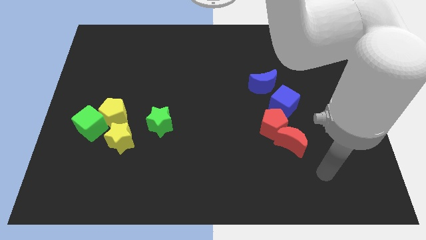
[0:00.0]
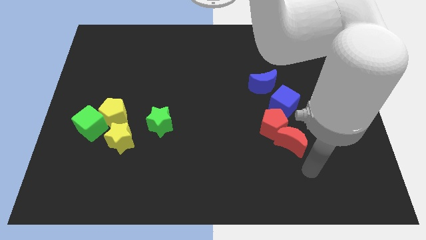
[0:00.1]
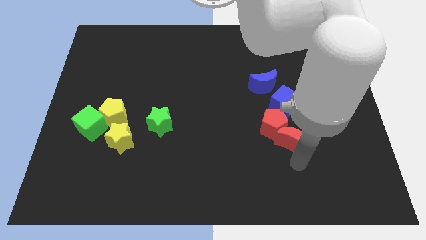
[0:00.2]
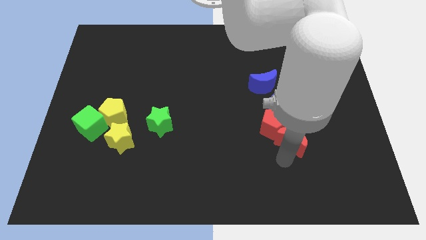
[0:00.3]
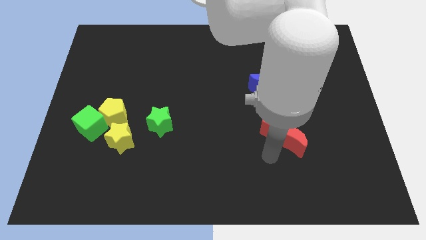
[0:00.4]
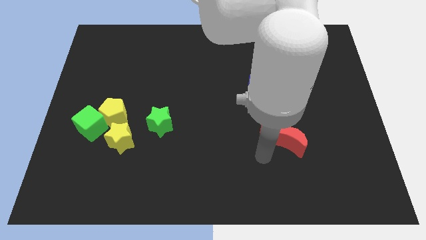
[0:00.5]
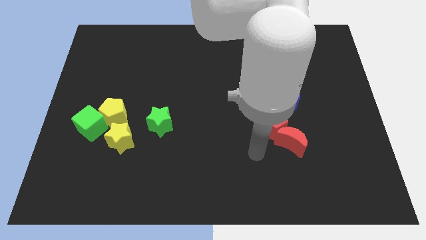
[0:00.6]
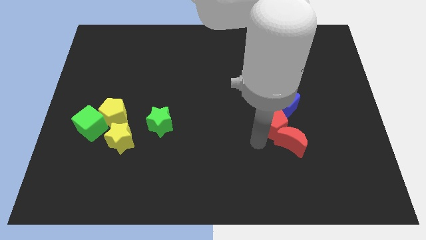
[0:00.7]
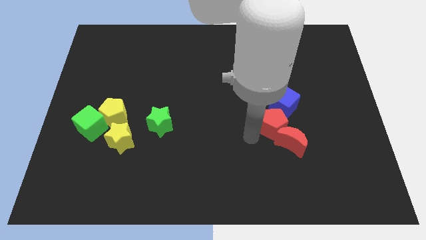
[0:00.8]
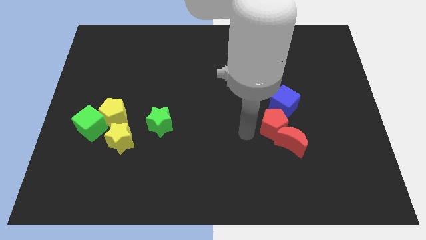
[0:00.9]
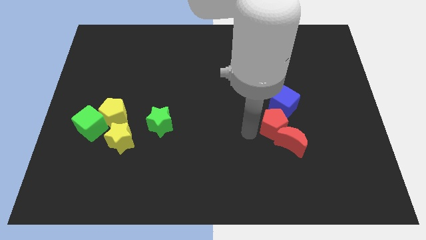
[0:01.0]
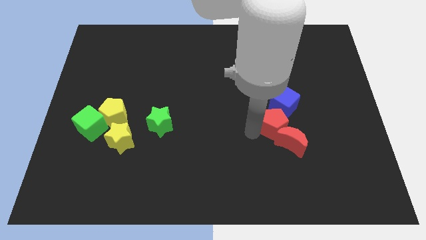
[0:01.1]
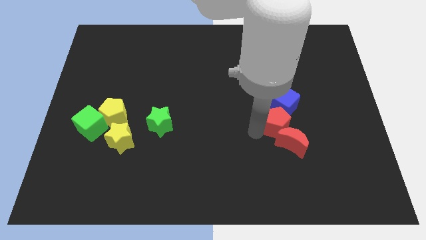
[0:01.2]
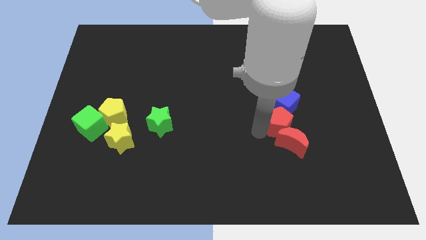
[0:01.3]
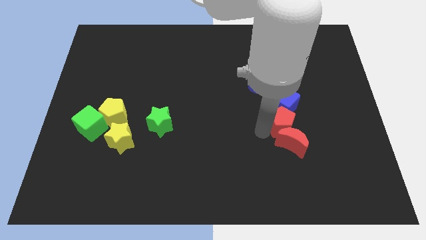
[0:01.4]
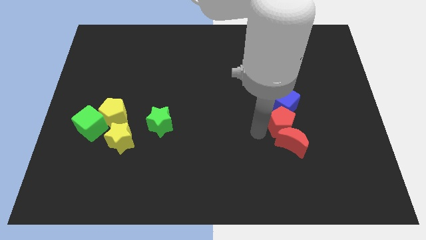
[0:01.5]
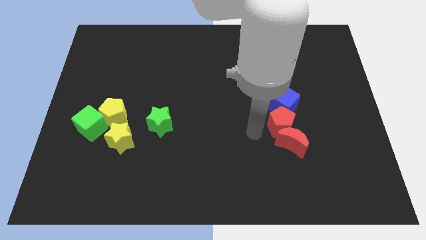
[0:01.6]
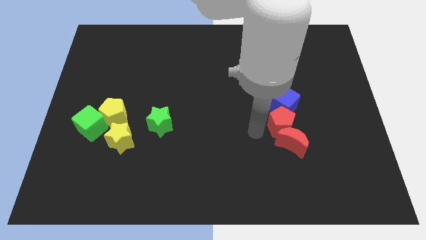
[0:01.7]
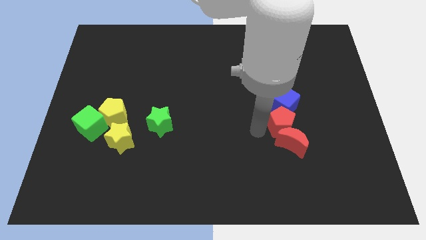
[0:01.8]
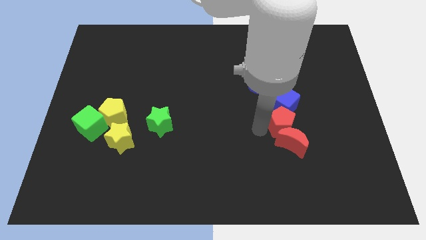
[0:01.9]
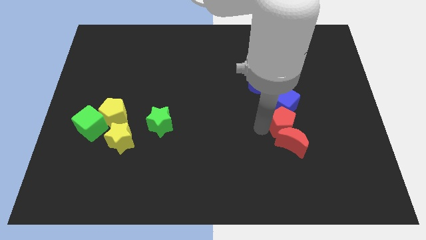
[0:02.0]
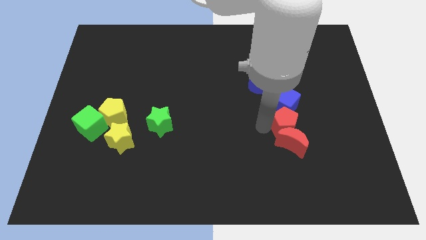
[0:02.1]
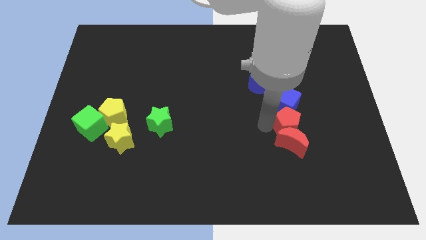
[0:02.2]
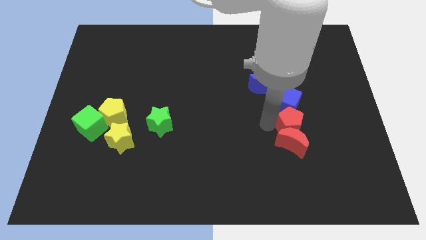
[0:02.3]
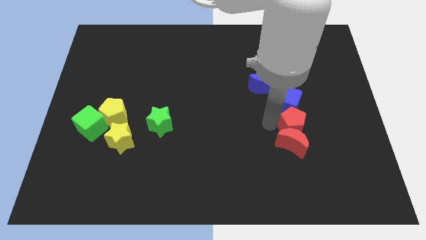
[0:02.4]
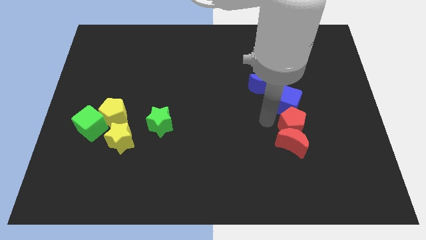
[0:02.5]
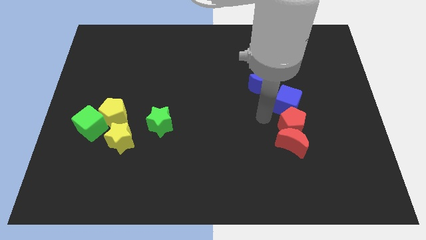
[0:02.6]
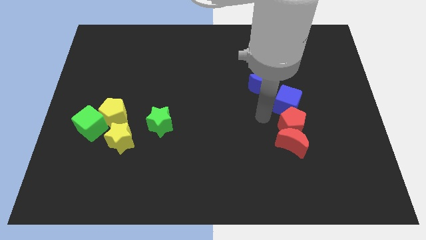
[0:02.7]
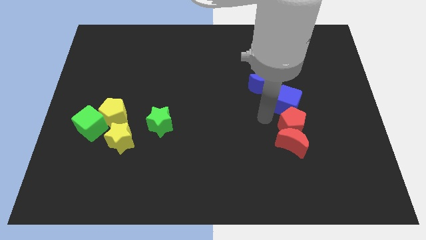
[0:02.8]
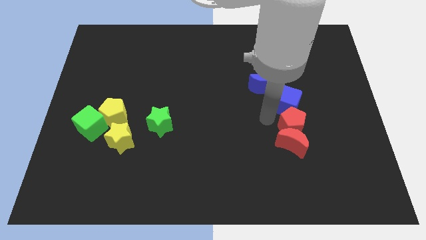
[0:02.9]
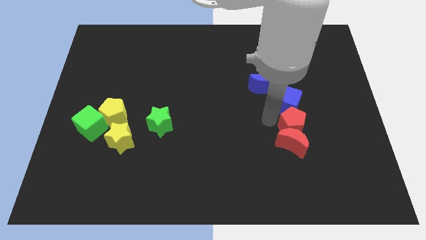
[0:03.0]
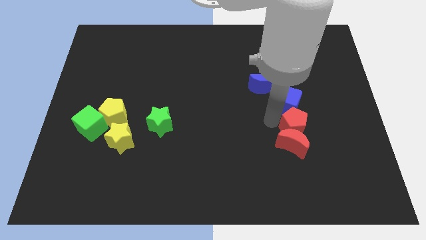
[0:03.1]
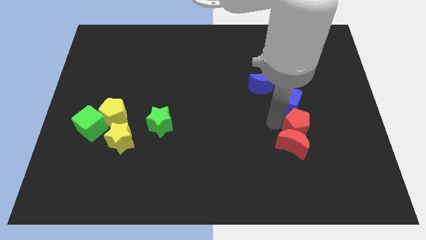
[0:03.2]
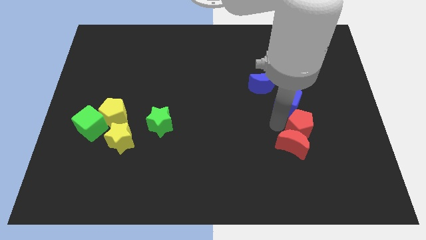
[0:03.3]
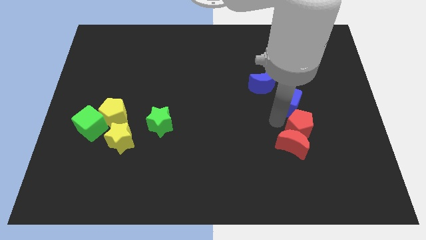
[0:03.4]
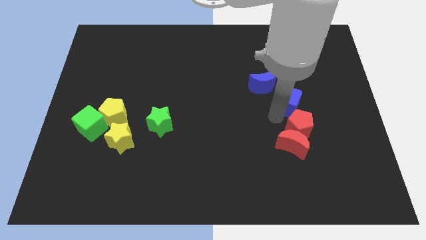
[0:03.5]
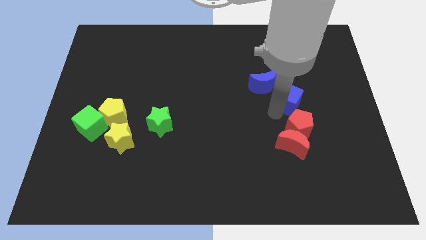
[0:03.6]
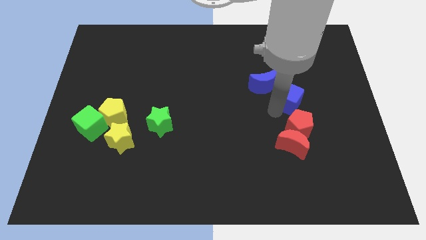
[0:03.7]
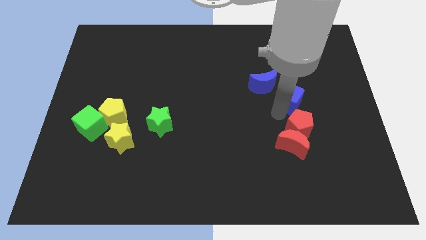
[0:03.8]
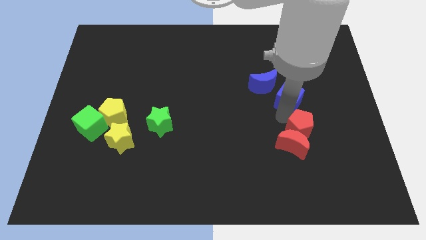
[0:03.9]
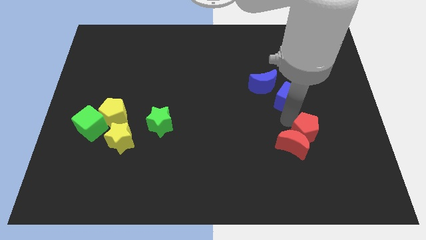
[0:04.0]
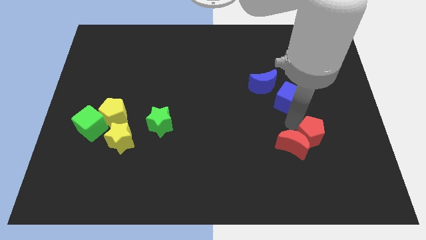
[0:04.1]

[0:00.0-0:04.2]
slightly push the red pentagon downwards and to the right diagonally

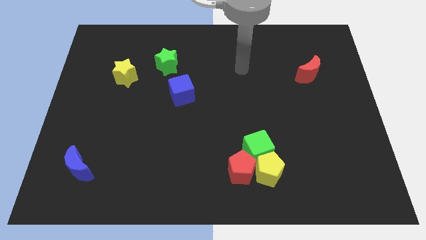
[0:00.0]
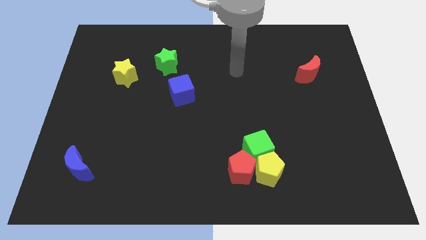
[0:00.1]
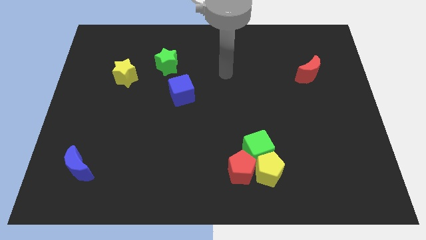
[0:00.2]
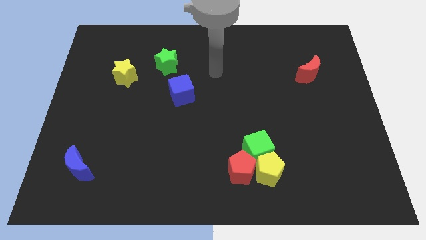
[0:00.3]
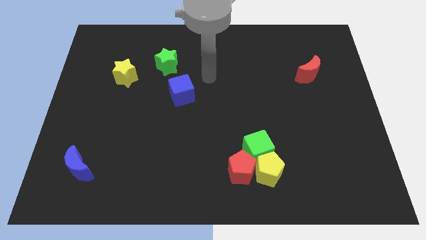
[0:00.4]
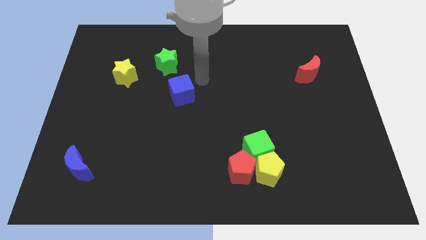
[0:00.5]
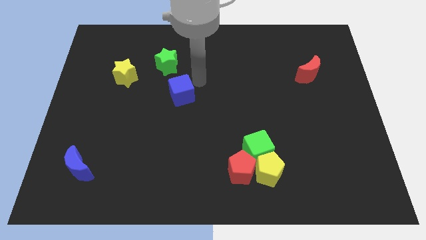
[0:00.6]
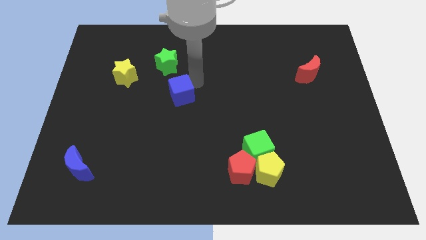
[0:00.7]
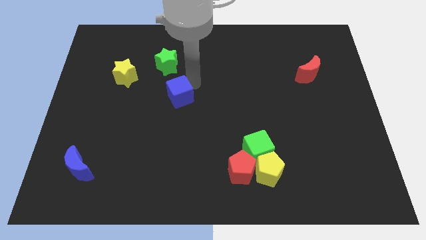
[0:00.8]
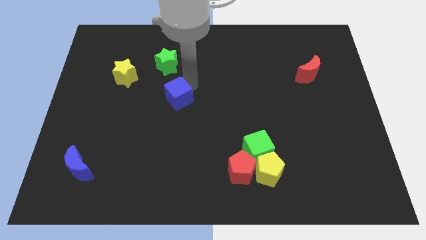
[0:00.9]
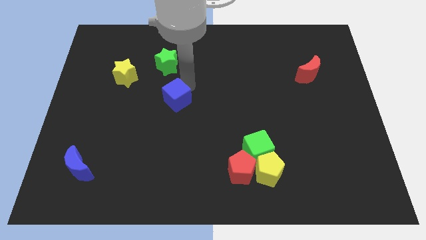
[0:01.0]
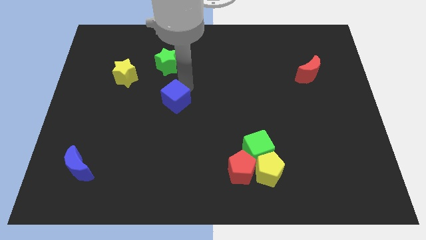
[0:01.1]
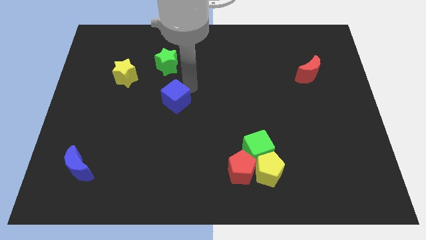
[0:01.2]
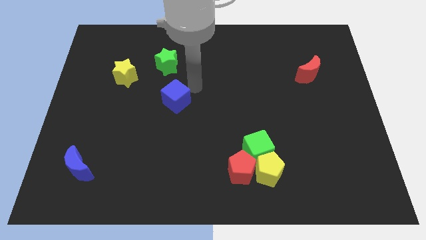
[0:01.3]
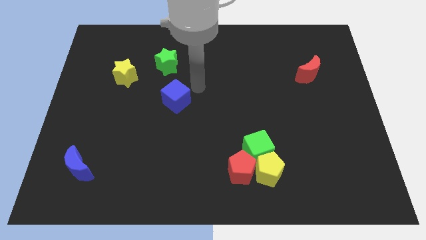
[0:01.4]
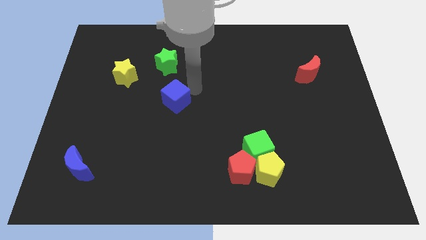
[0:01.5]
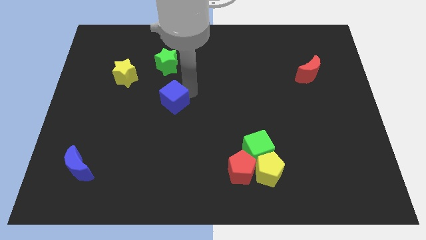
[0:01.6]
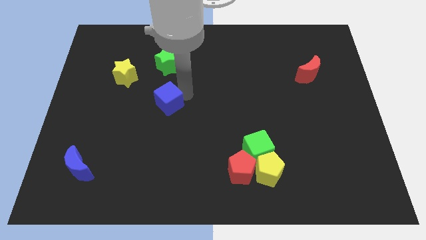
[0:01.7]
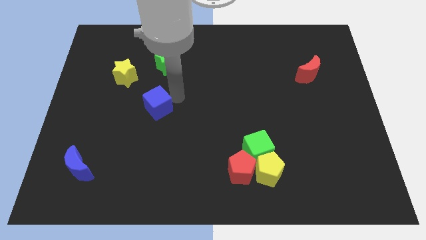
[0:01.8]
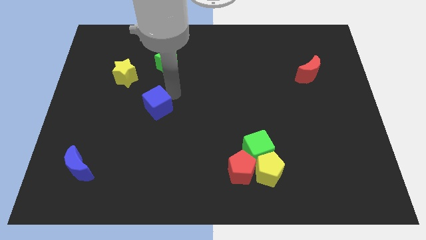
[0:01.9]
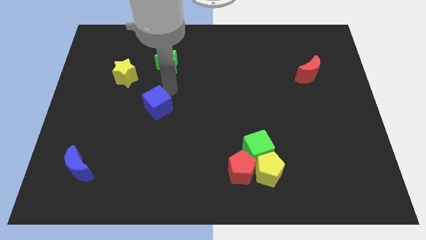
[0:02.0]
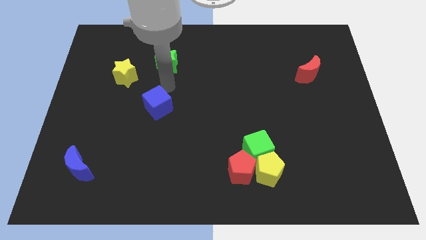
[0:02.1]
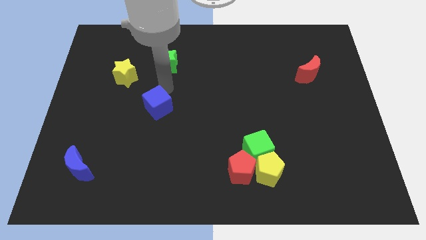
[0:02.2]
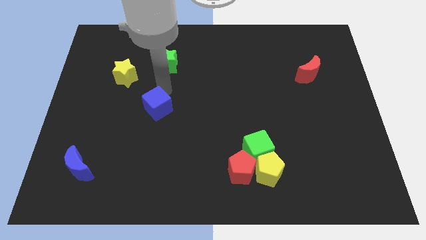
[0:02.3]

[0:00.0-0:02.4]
move the blue cube down and then to the left slightly

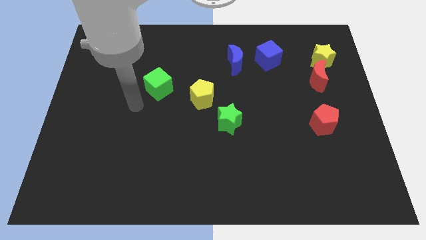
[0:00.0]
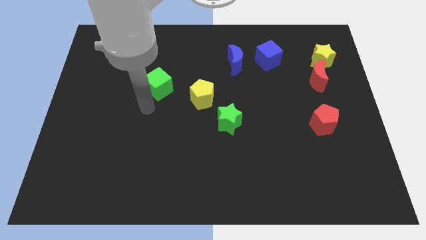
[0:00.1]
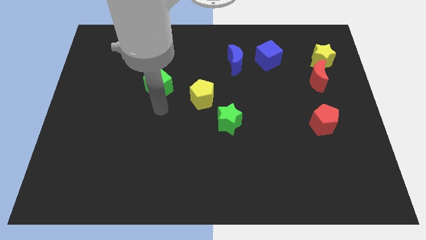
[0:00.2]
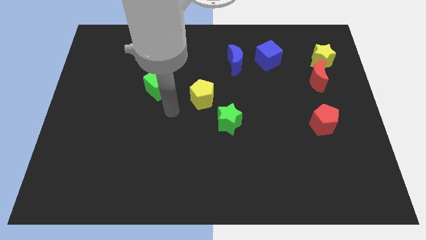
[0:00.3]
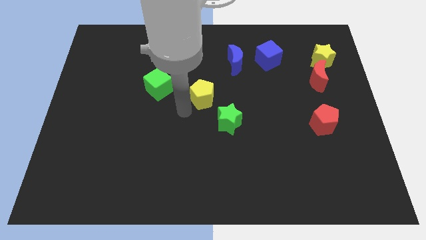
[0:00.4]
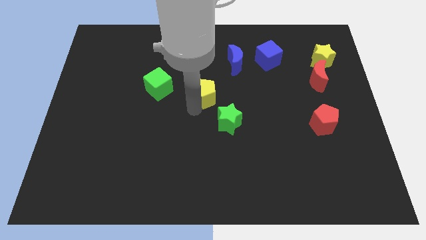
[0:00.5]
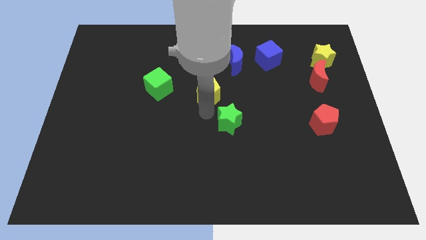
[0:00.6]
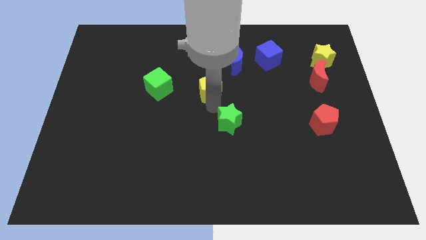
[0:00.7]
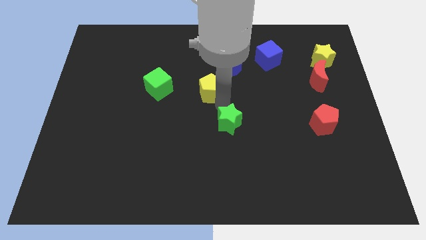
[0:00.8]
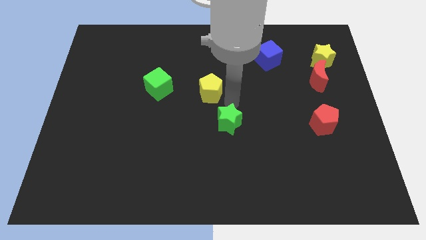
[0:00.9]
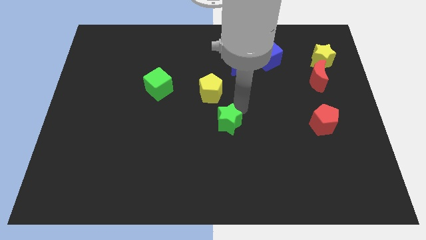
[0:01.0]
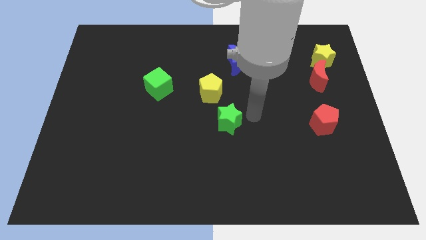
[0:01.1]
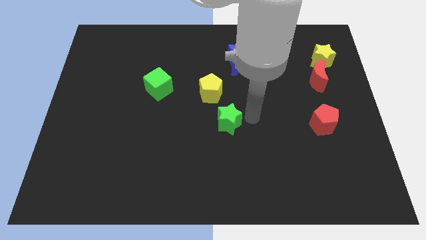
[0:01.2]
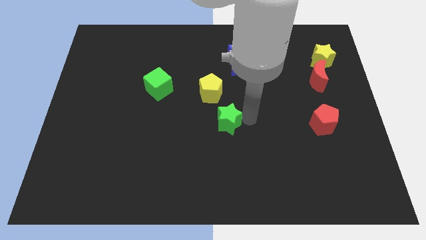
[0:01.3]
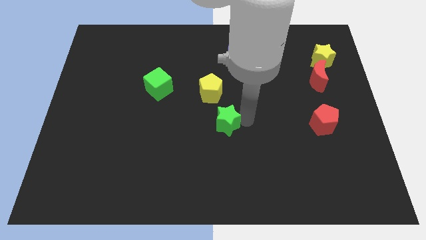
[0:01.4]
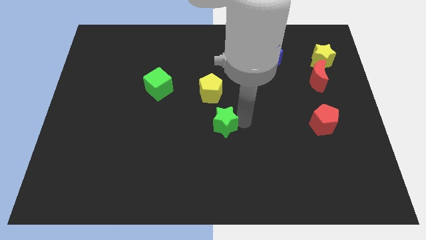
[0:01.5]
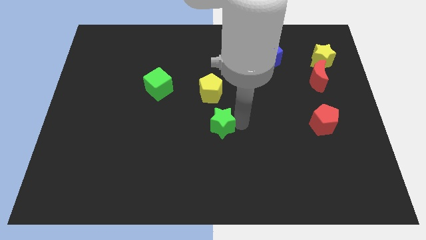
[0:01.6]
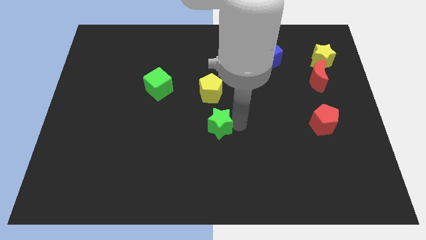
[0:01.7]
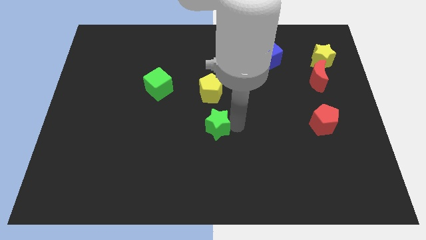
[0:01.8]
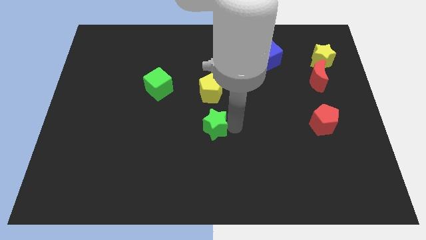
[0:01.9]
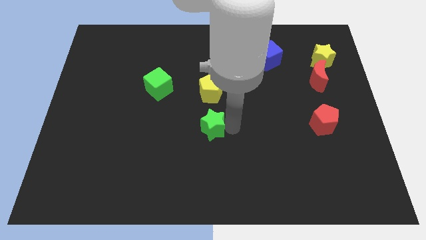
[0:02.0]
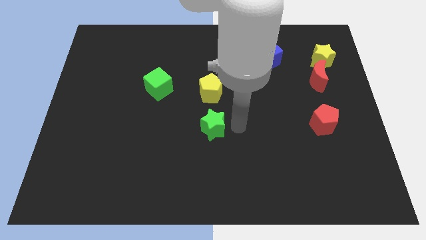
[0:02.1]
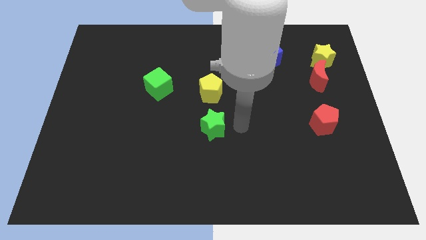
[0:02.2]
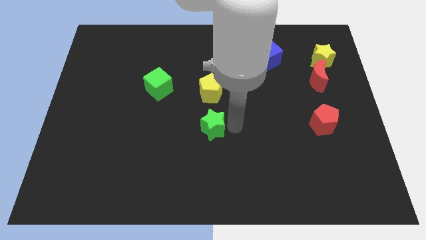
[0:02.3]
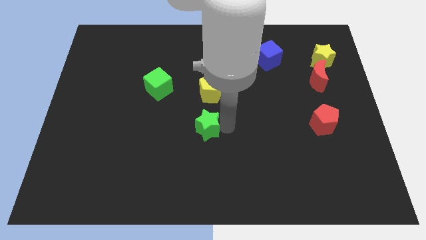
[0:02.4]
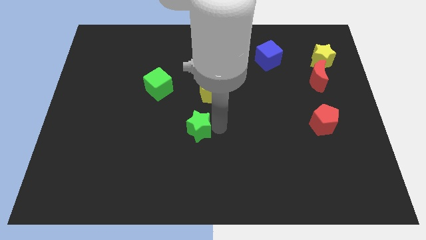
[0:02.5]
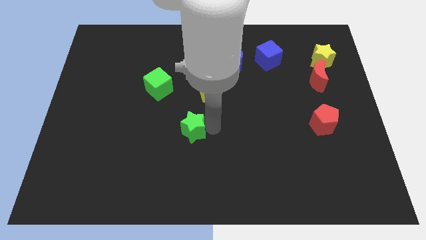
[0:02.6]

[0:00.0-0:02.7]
push the green star left slightly
